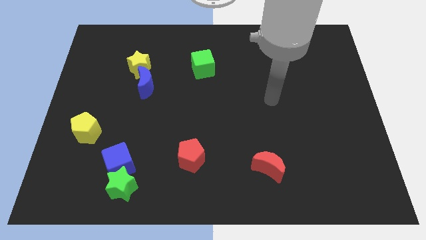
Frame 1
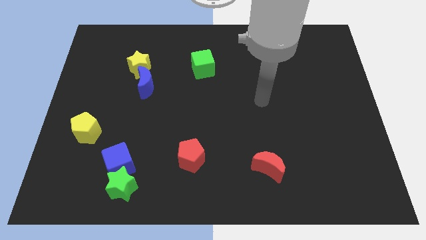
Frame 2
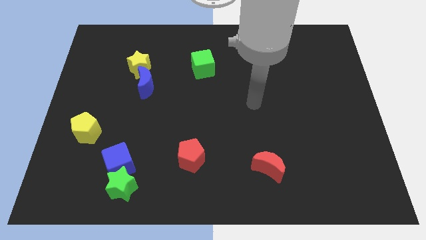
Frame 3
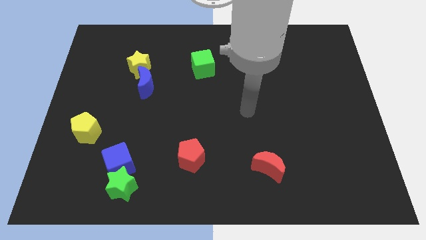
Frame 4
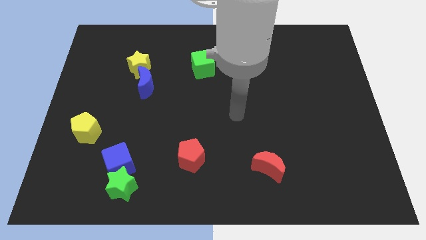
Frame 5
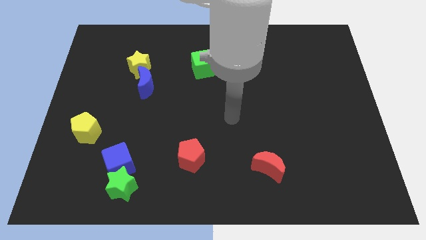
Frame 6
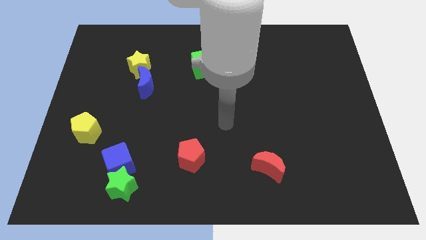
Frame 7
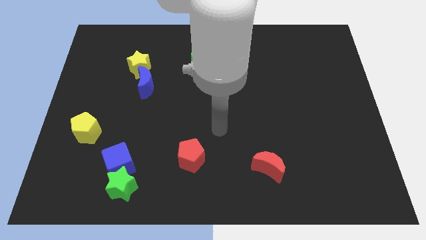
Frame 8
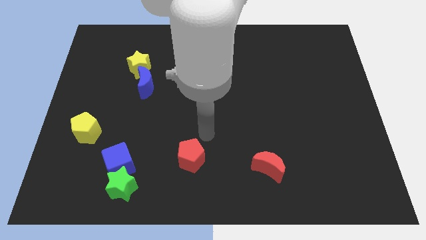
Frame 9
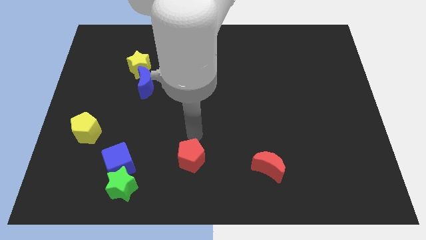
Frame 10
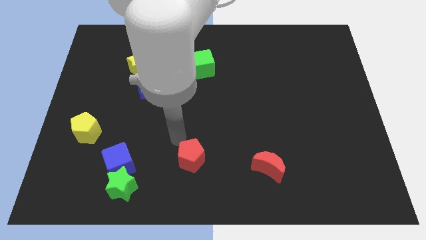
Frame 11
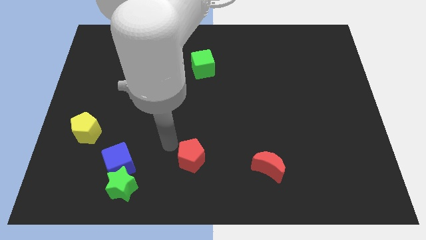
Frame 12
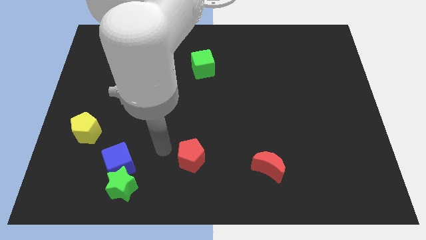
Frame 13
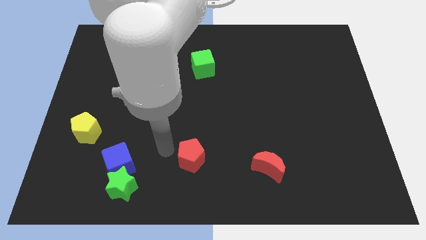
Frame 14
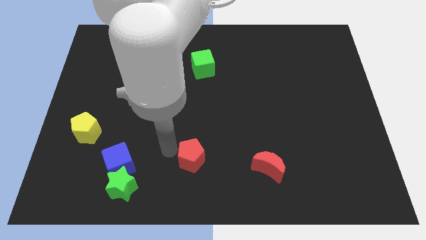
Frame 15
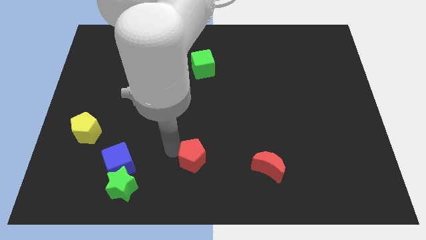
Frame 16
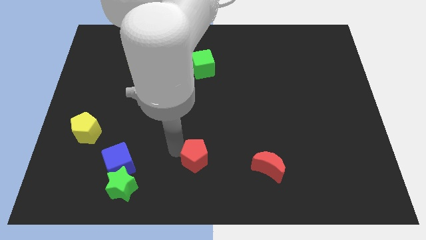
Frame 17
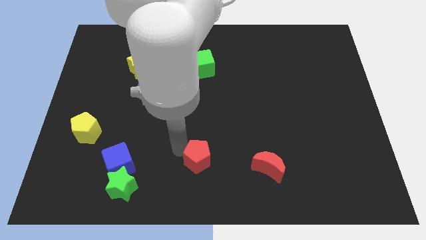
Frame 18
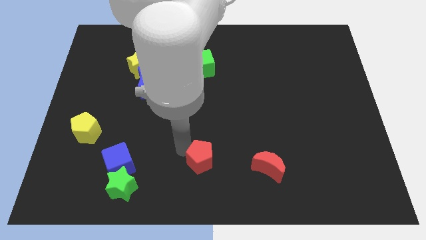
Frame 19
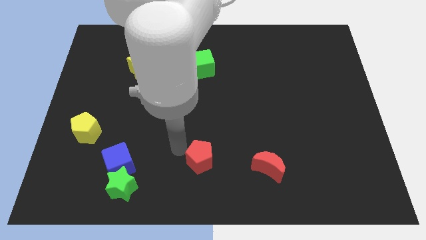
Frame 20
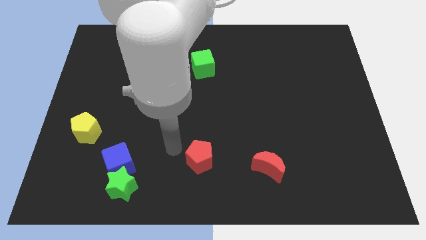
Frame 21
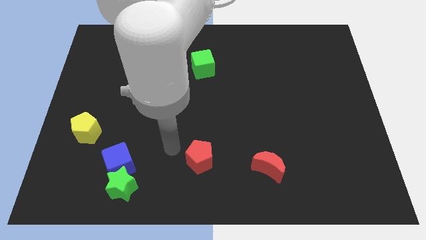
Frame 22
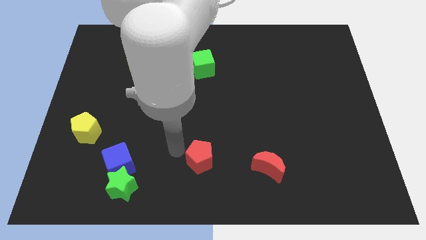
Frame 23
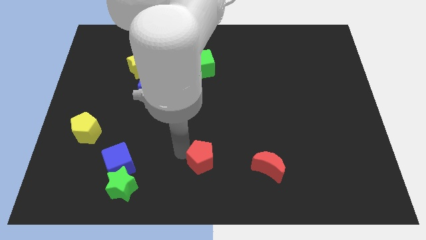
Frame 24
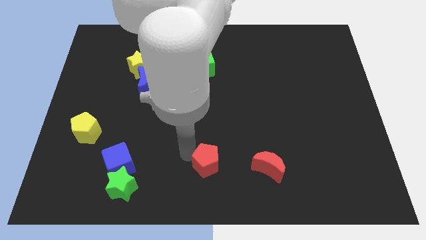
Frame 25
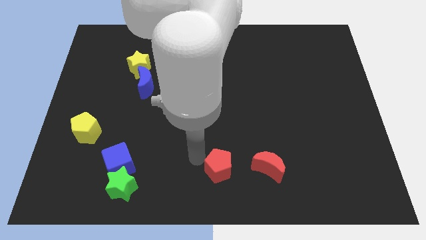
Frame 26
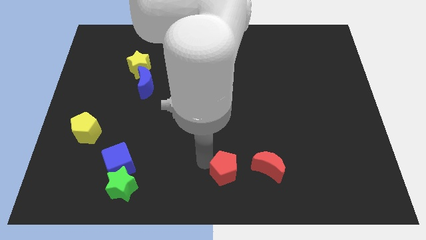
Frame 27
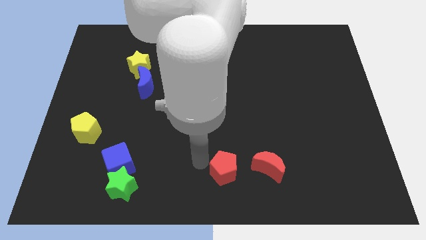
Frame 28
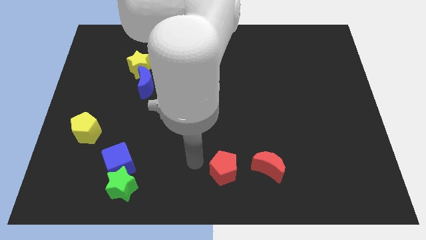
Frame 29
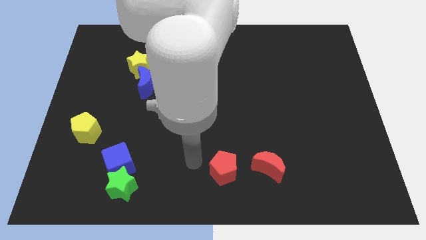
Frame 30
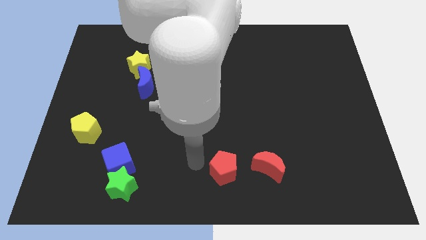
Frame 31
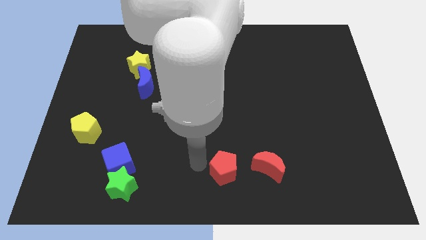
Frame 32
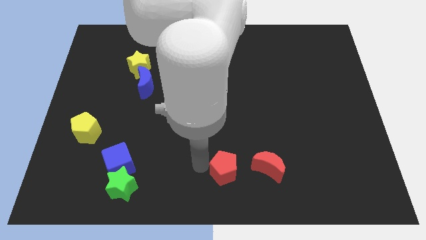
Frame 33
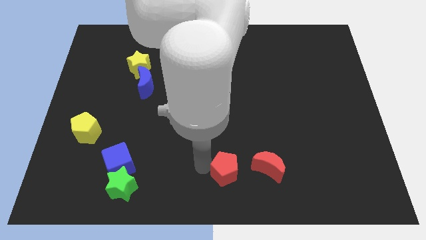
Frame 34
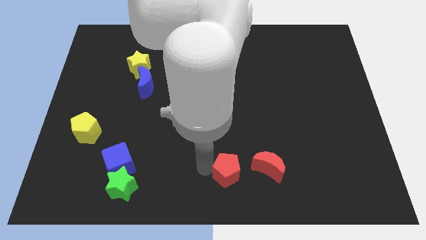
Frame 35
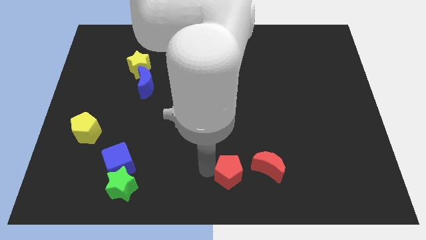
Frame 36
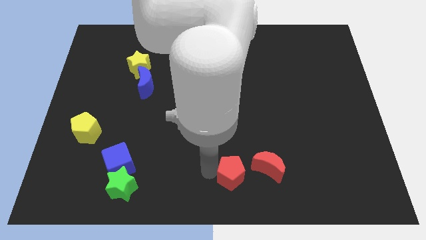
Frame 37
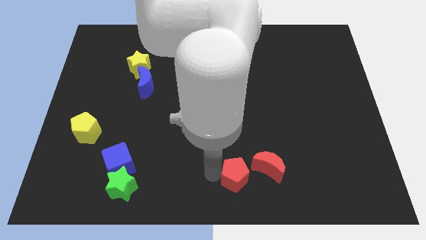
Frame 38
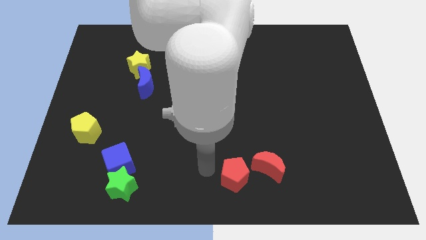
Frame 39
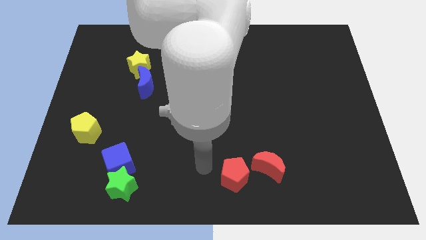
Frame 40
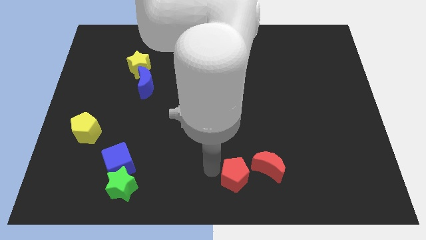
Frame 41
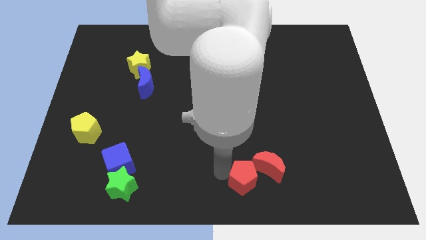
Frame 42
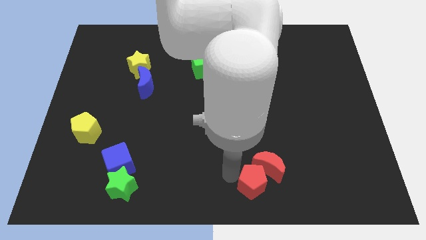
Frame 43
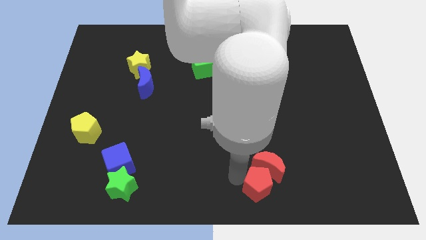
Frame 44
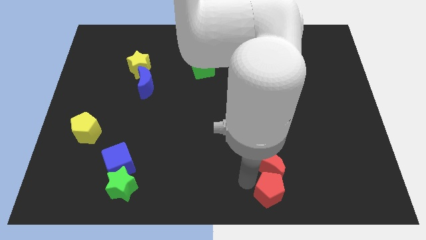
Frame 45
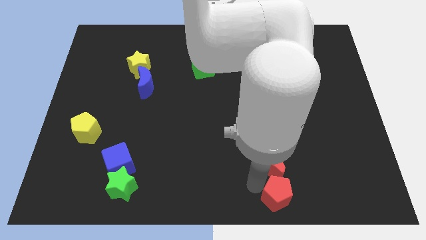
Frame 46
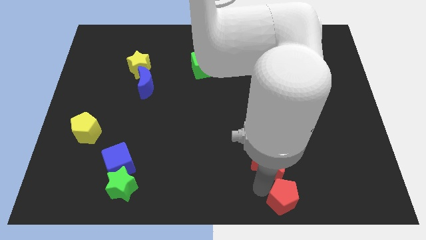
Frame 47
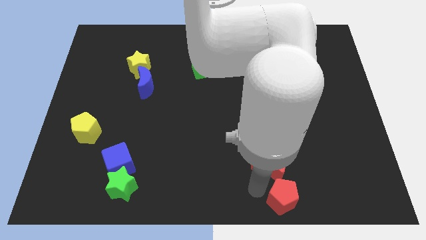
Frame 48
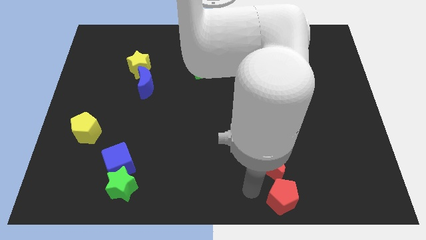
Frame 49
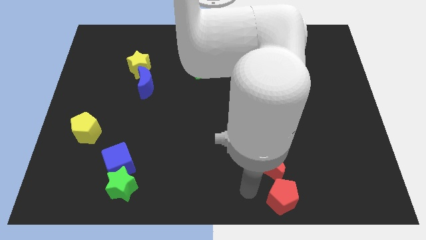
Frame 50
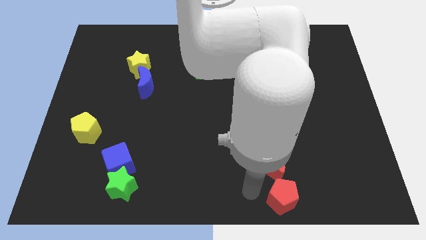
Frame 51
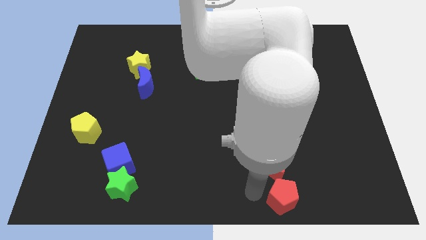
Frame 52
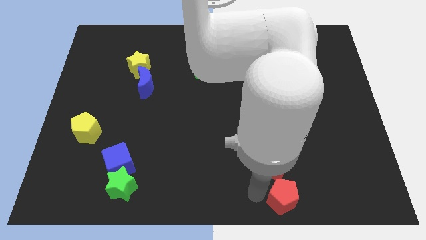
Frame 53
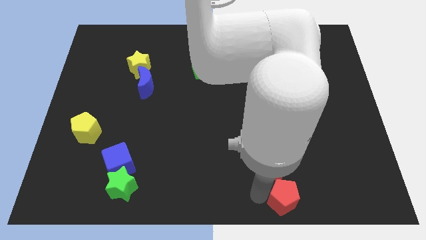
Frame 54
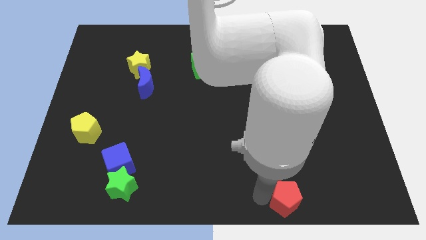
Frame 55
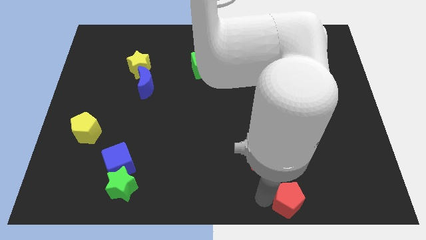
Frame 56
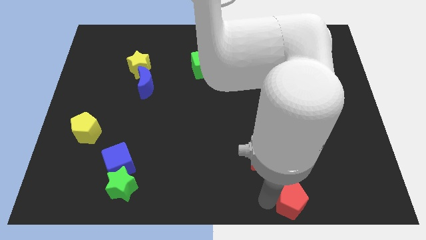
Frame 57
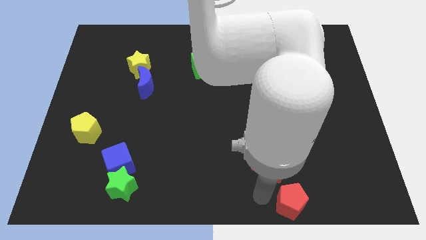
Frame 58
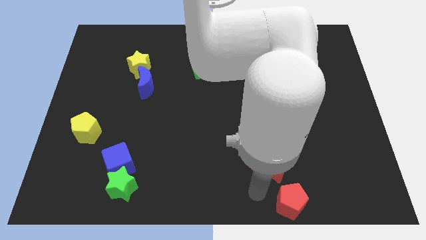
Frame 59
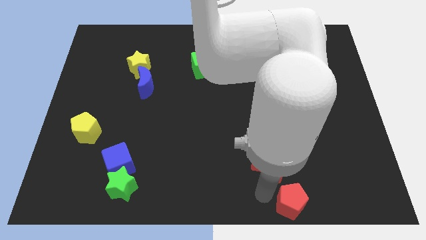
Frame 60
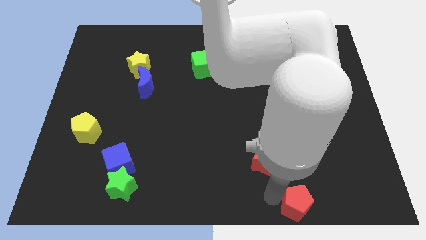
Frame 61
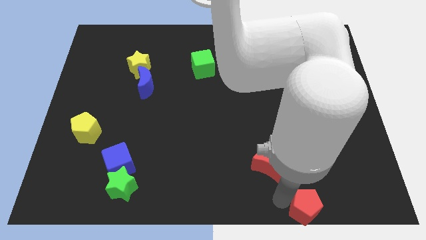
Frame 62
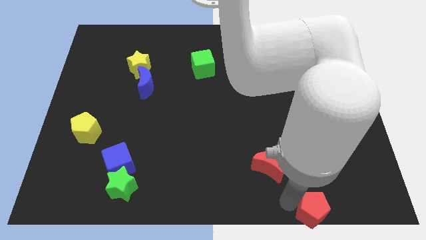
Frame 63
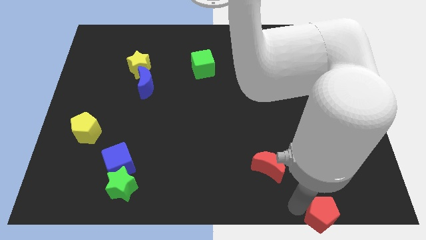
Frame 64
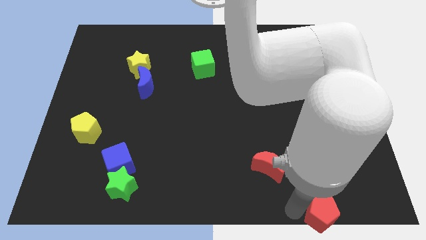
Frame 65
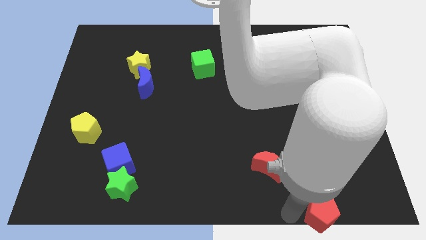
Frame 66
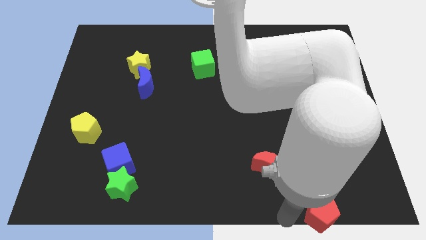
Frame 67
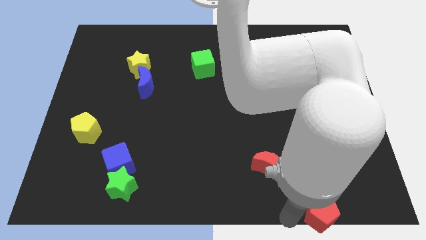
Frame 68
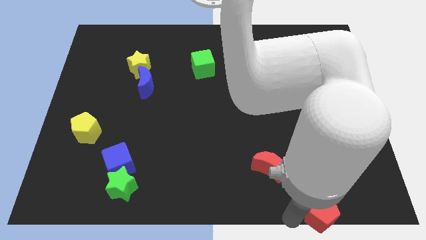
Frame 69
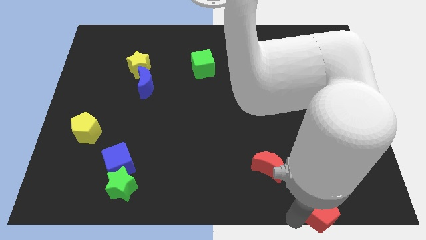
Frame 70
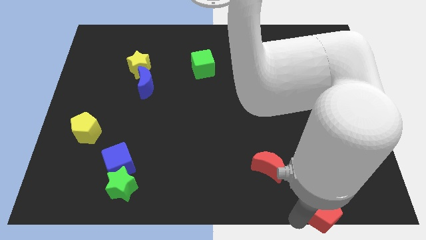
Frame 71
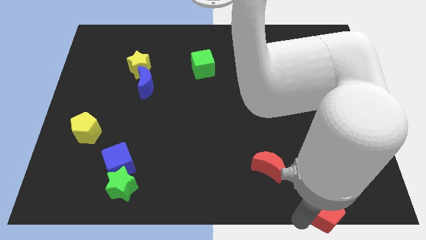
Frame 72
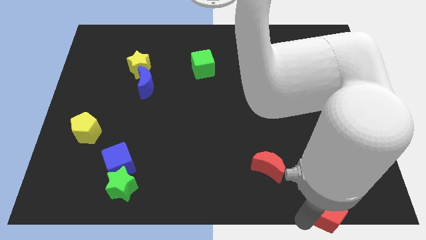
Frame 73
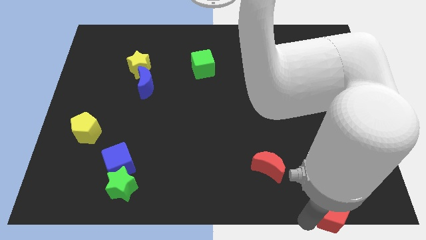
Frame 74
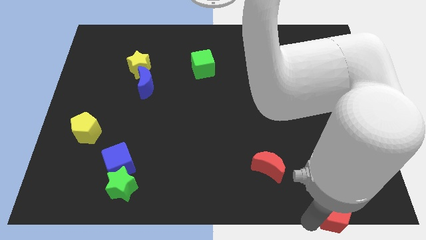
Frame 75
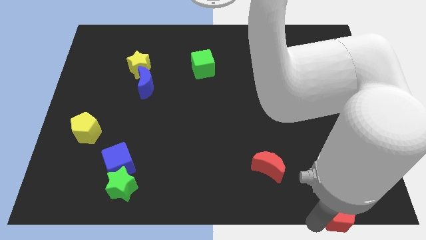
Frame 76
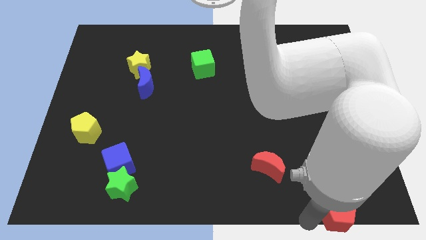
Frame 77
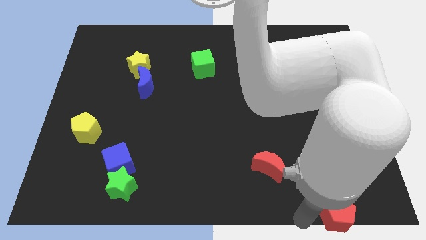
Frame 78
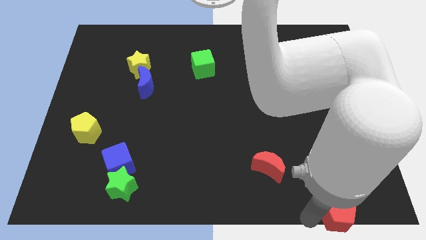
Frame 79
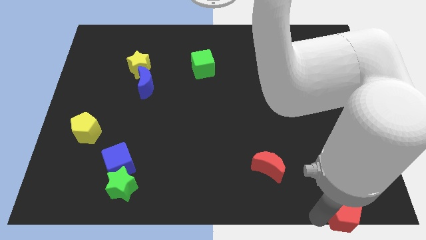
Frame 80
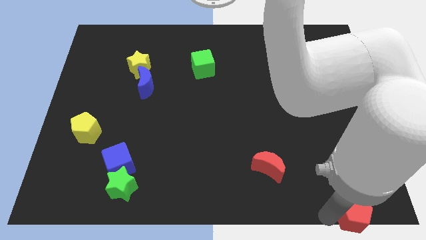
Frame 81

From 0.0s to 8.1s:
slide the red pentagon to the bottom right of the board
